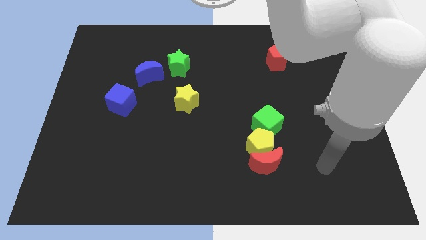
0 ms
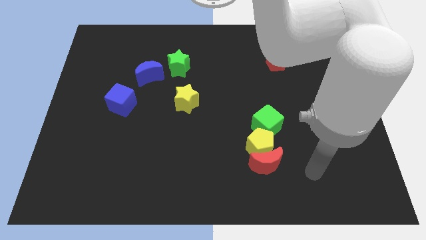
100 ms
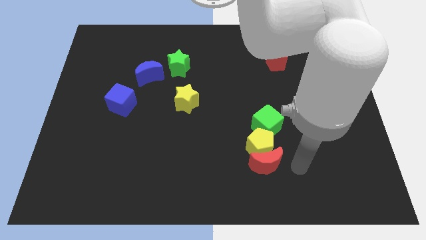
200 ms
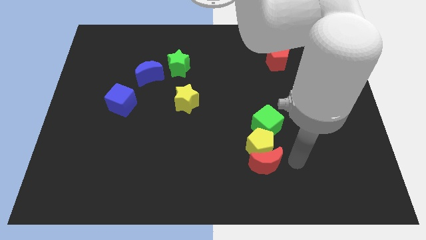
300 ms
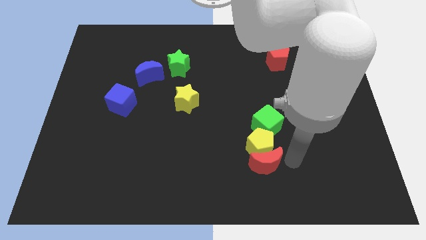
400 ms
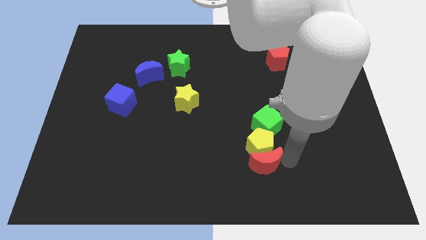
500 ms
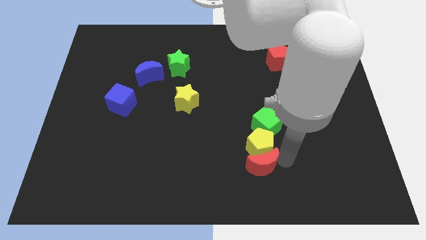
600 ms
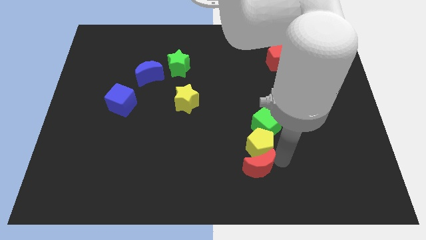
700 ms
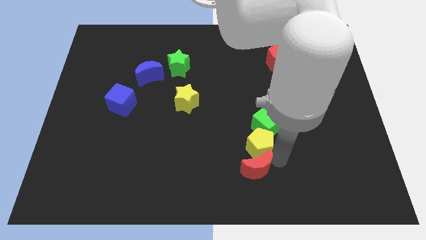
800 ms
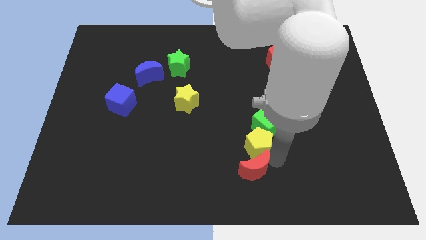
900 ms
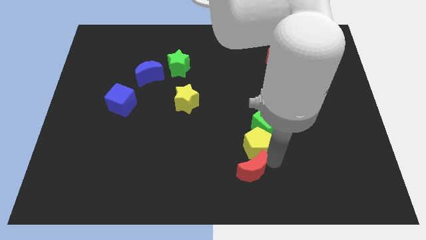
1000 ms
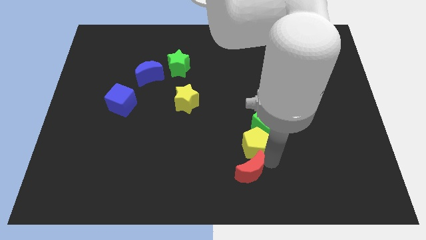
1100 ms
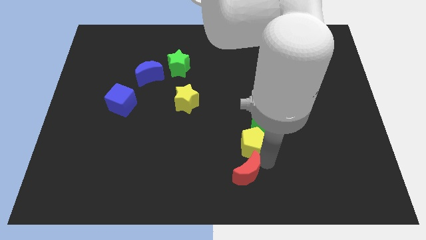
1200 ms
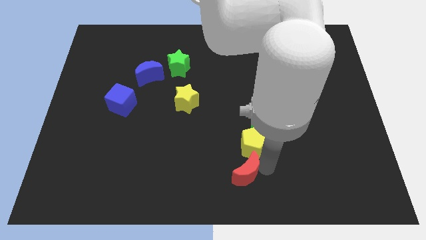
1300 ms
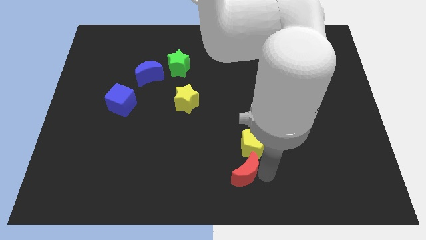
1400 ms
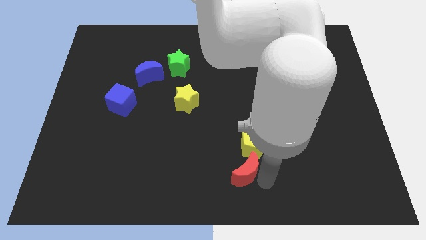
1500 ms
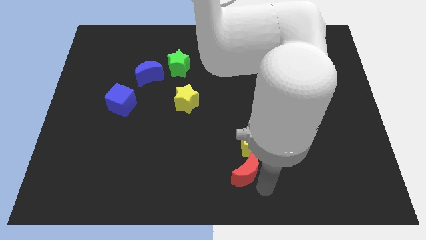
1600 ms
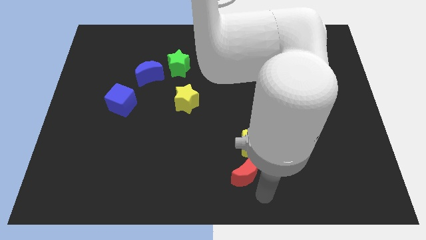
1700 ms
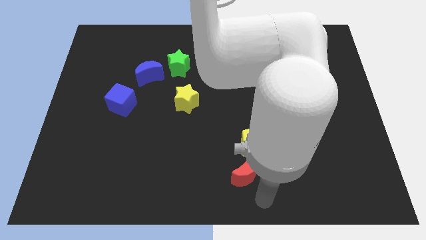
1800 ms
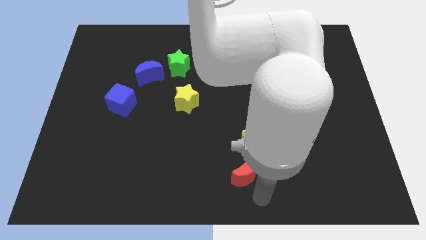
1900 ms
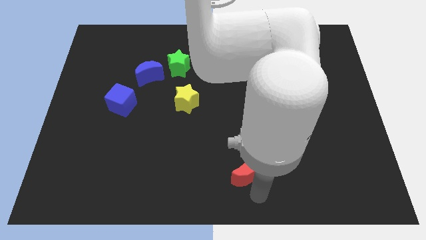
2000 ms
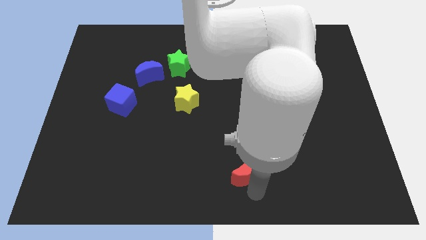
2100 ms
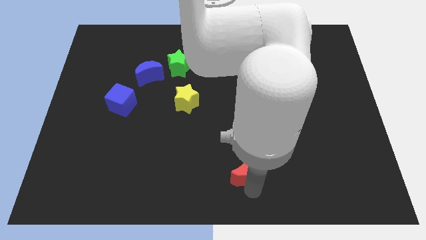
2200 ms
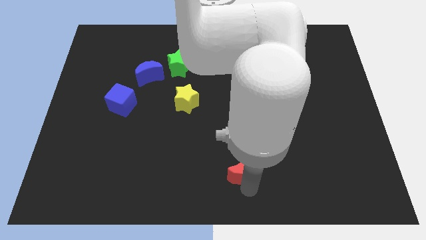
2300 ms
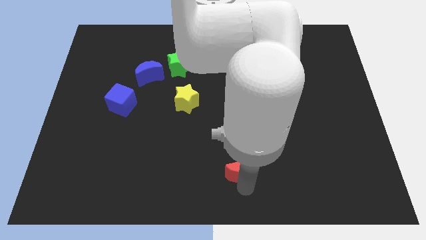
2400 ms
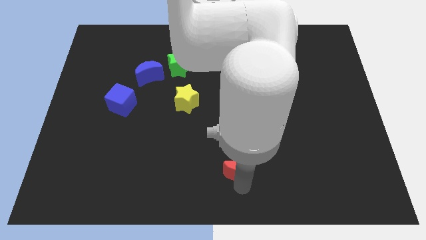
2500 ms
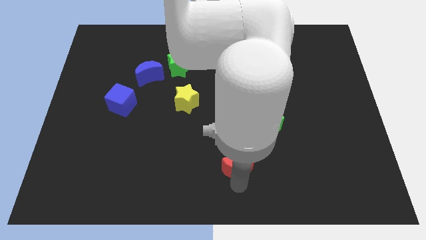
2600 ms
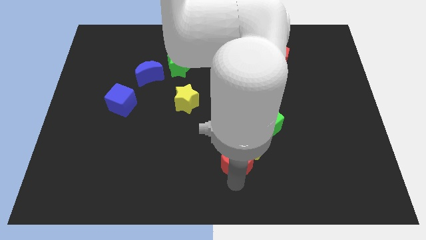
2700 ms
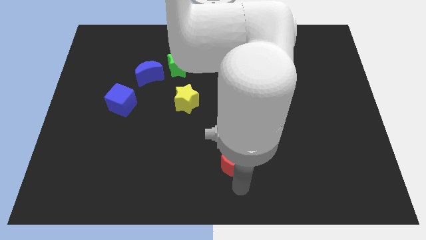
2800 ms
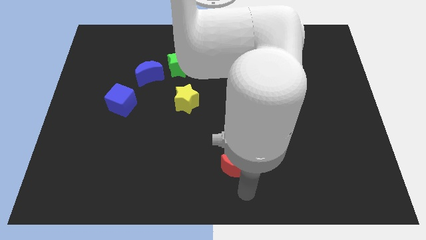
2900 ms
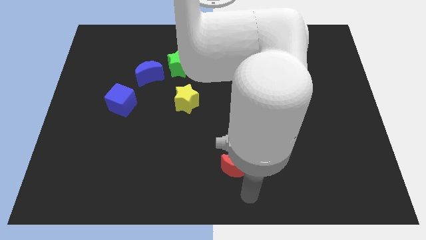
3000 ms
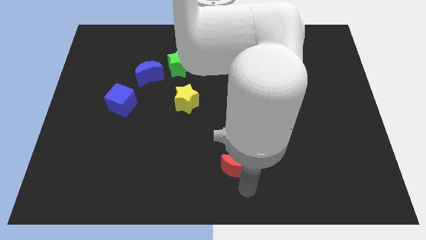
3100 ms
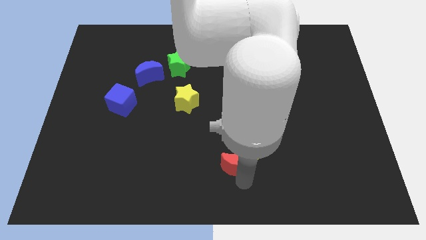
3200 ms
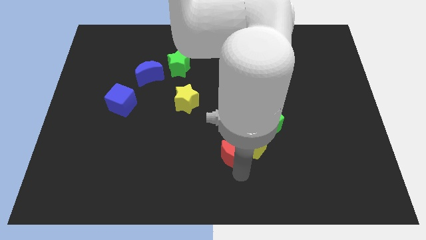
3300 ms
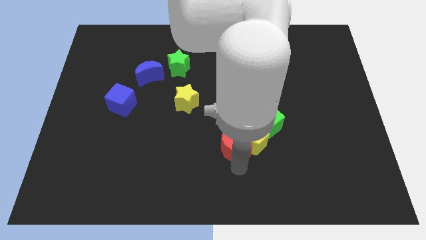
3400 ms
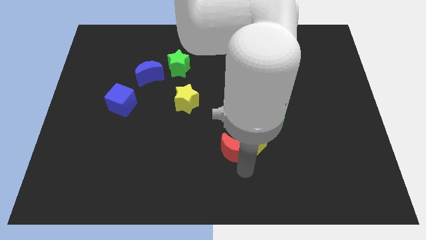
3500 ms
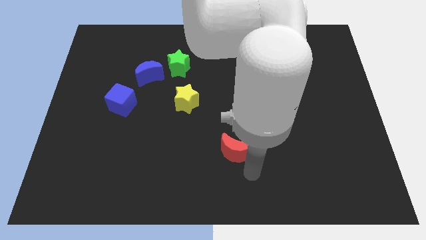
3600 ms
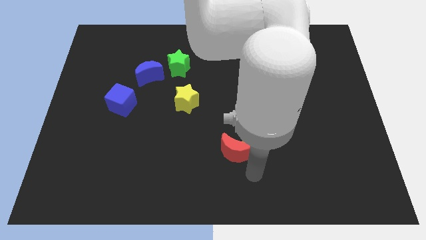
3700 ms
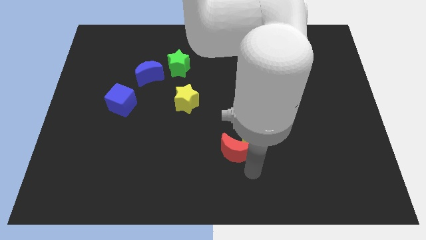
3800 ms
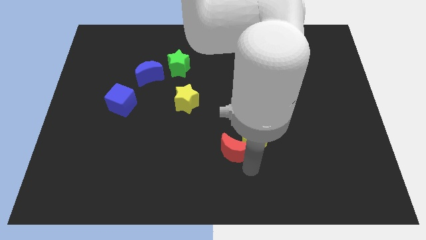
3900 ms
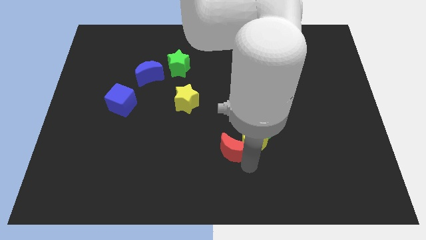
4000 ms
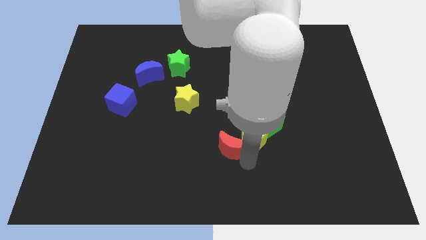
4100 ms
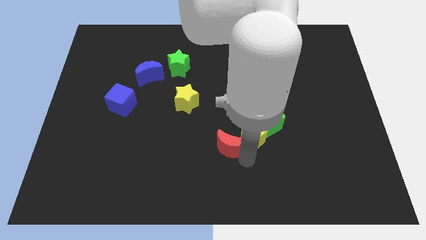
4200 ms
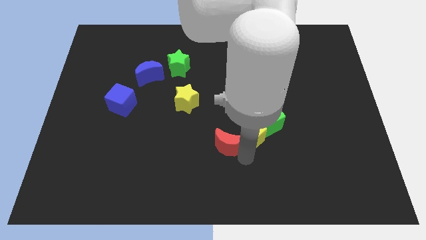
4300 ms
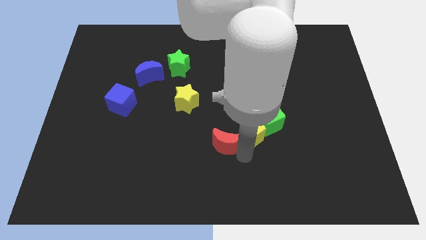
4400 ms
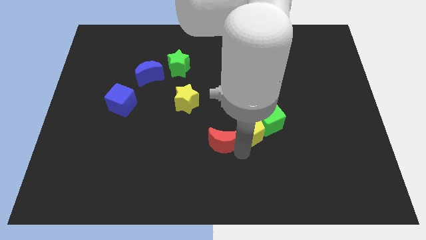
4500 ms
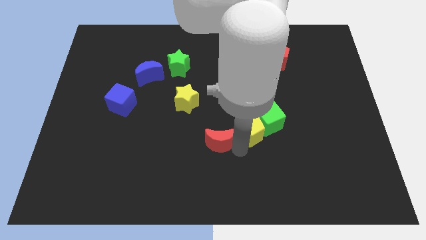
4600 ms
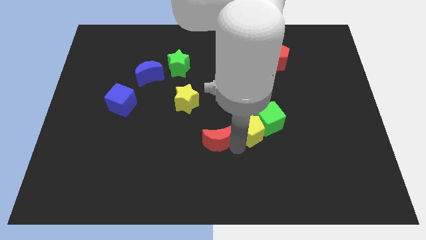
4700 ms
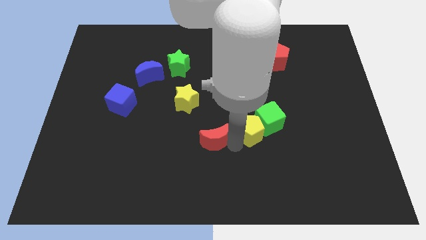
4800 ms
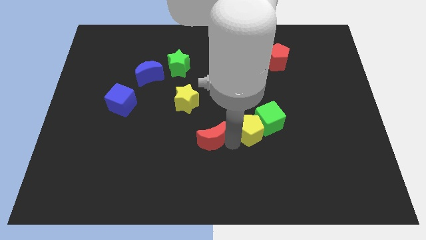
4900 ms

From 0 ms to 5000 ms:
move the red moon to the bottom right of the yellow star

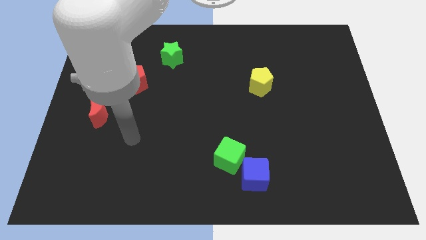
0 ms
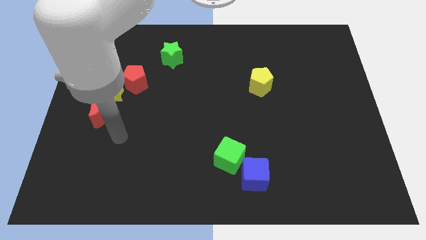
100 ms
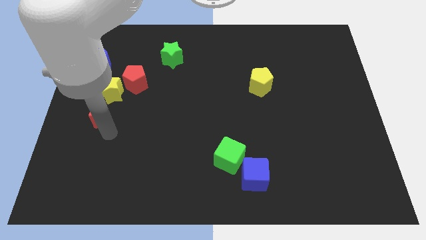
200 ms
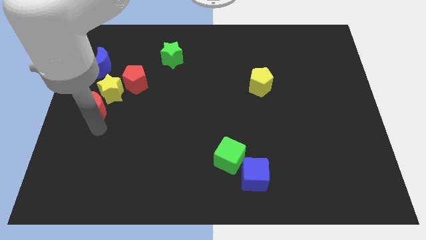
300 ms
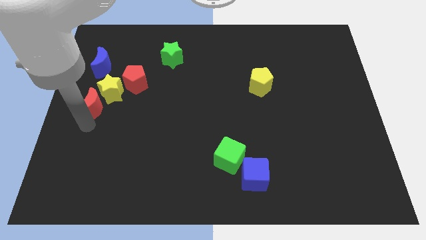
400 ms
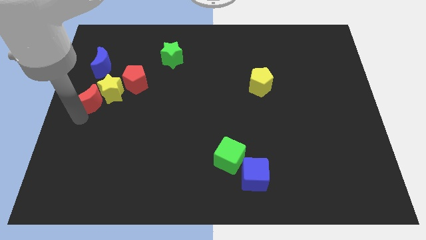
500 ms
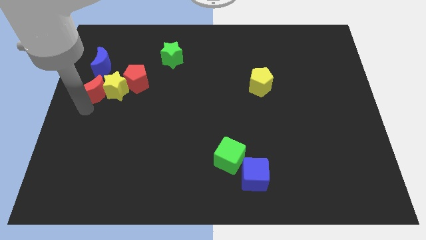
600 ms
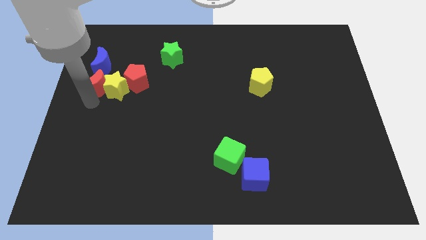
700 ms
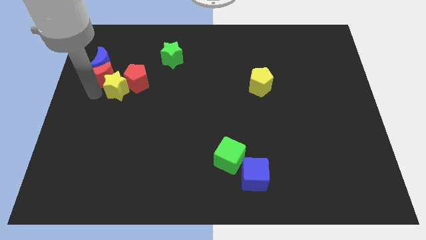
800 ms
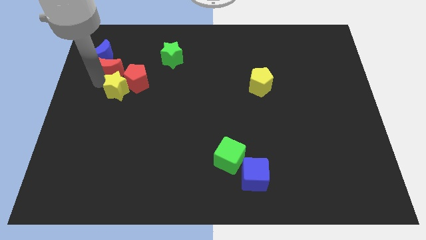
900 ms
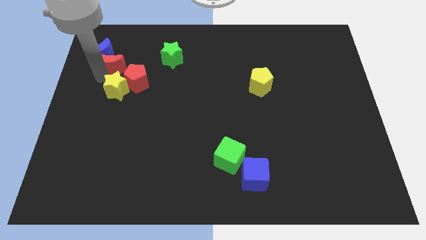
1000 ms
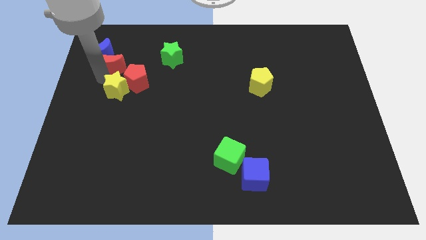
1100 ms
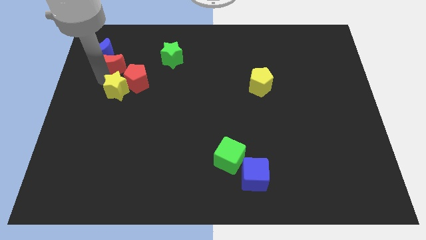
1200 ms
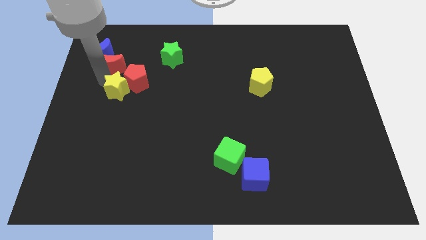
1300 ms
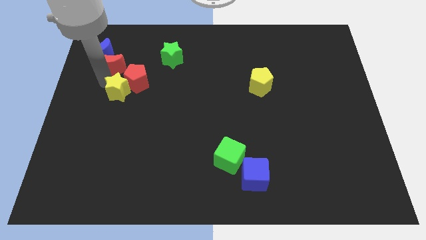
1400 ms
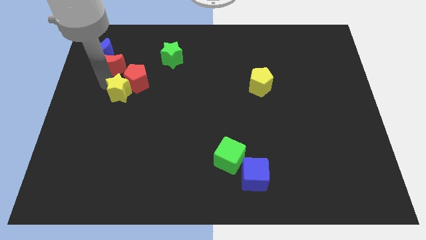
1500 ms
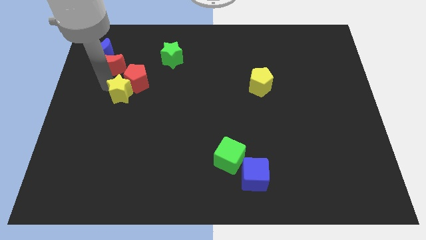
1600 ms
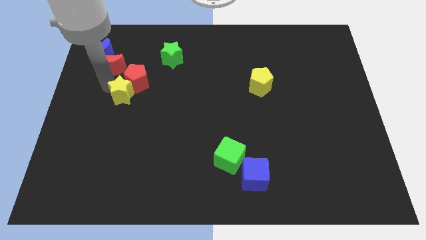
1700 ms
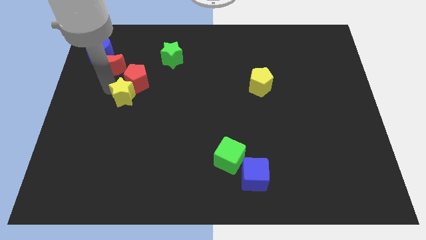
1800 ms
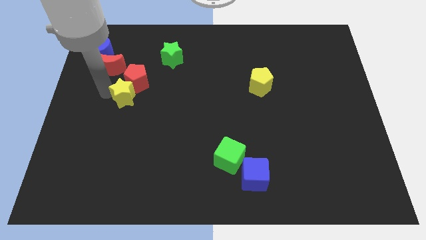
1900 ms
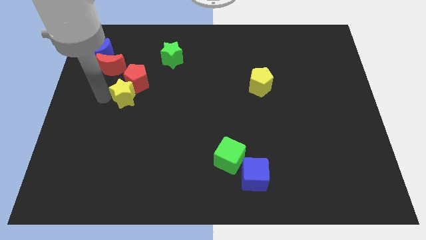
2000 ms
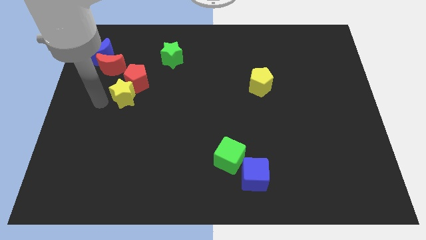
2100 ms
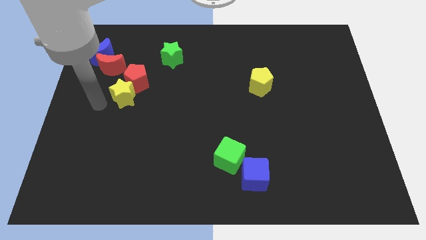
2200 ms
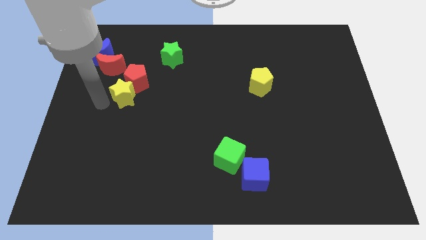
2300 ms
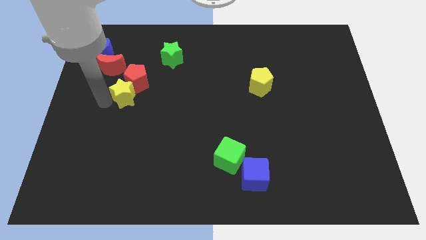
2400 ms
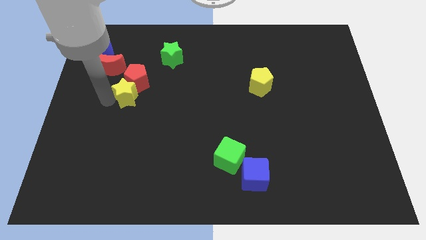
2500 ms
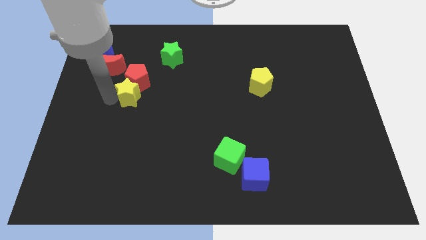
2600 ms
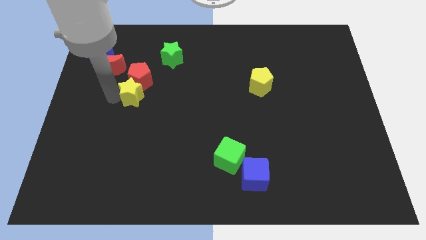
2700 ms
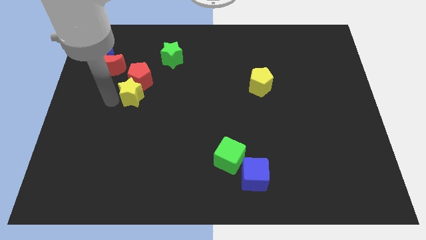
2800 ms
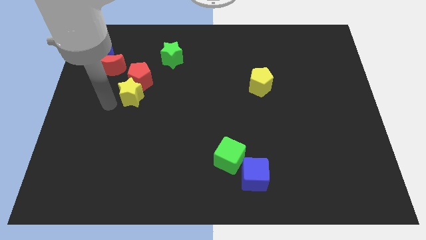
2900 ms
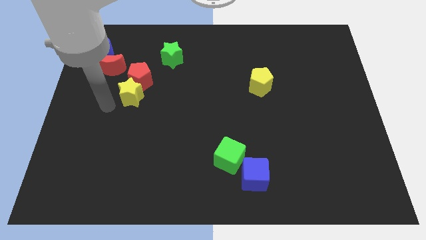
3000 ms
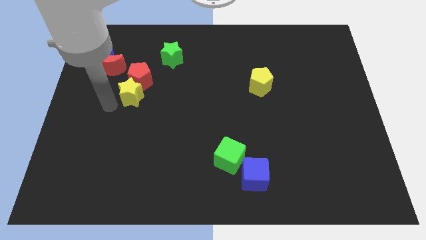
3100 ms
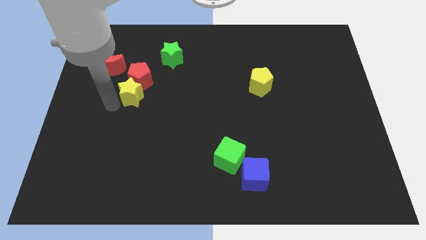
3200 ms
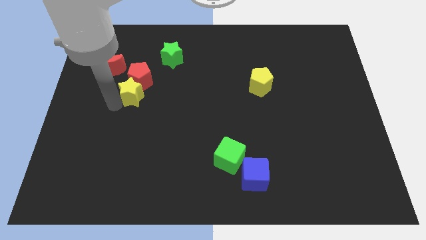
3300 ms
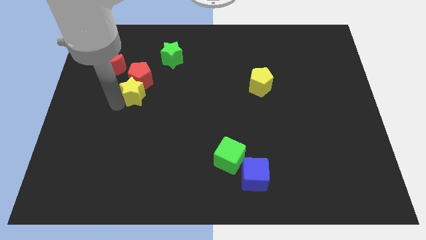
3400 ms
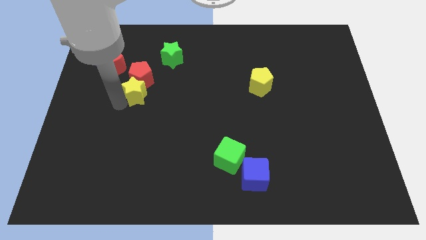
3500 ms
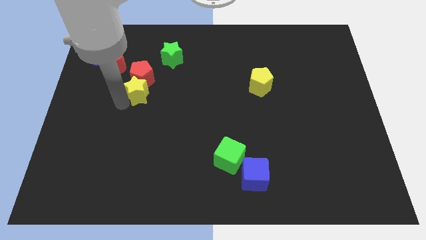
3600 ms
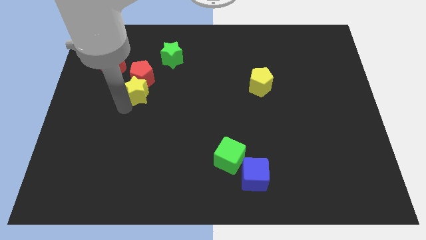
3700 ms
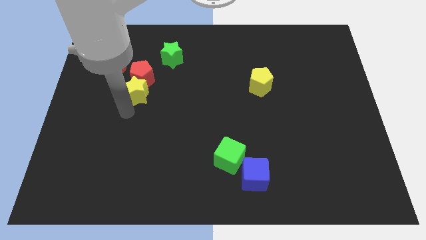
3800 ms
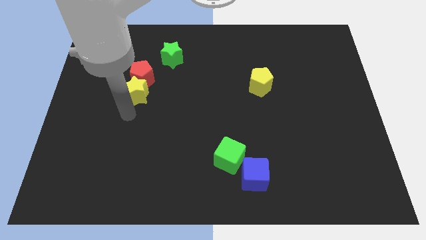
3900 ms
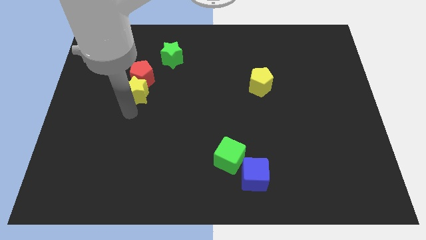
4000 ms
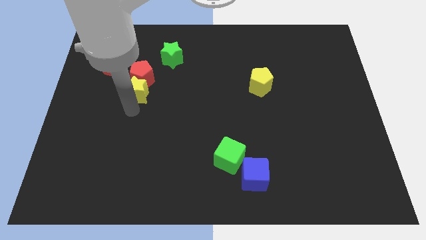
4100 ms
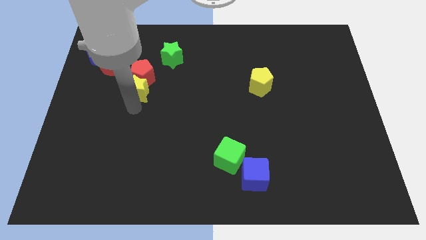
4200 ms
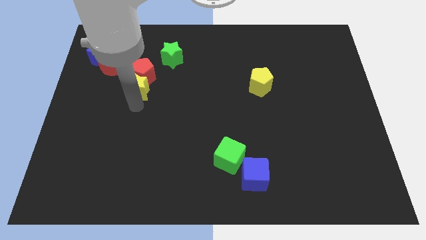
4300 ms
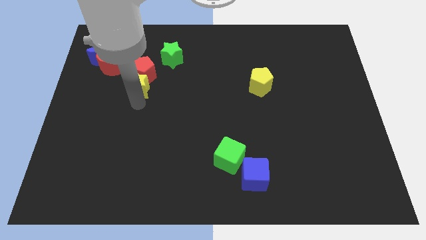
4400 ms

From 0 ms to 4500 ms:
slide the yellow star to the bottom left side of the green star
